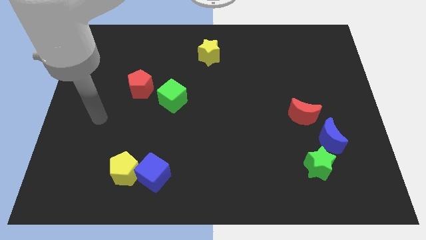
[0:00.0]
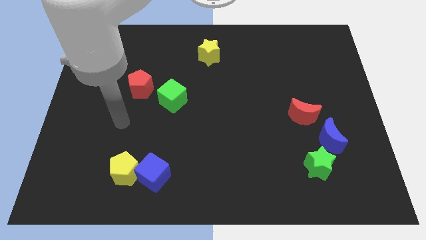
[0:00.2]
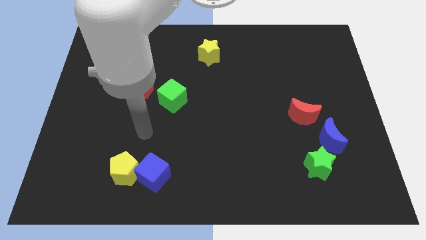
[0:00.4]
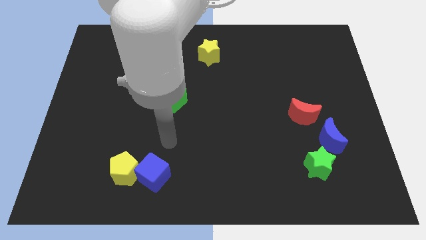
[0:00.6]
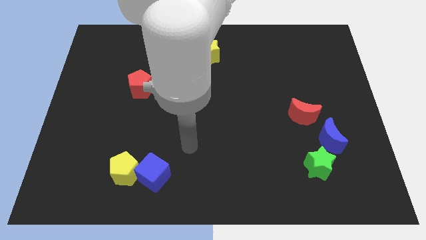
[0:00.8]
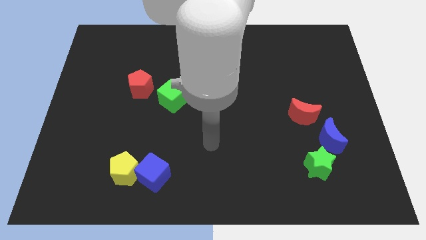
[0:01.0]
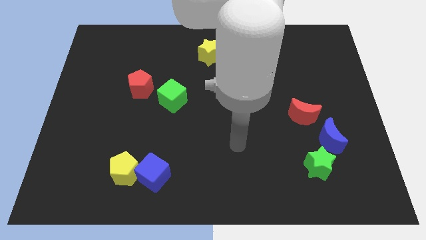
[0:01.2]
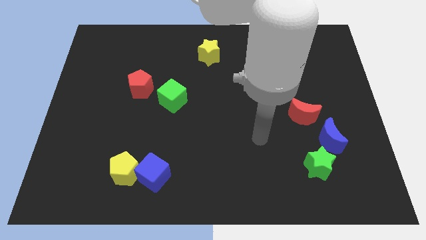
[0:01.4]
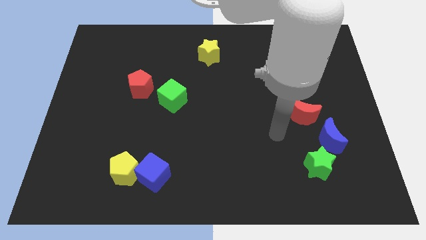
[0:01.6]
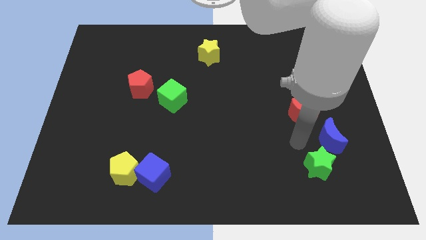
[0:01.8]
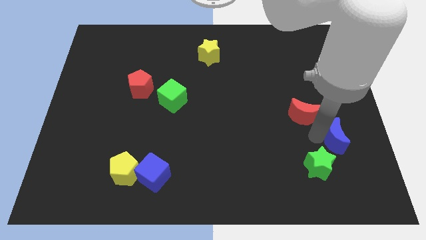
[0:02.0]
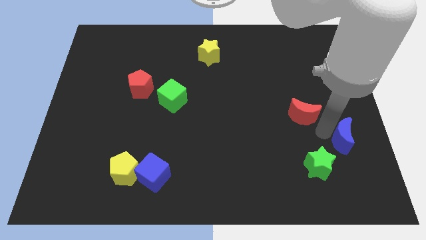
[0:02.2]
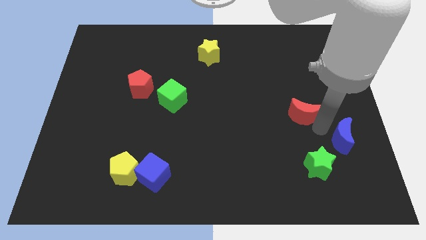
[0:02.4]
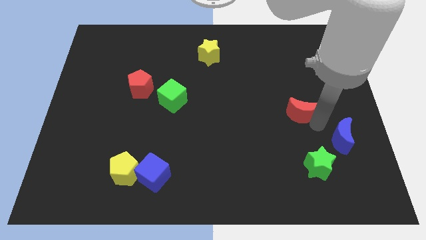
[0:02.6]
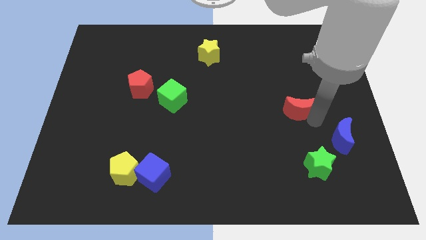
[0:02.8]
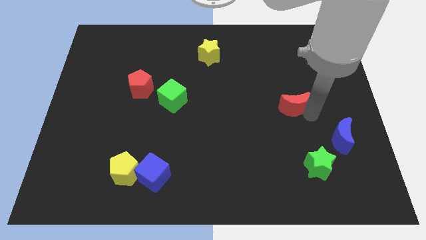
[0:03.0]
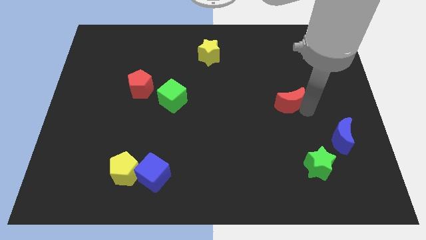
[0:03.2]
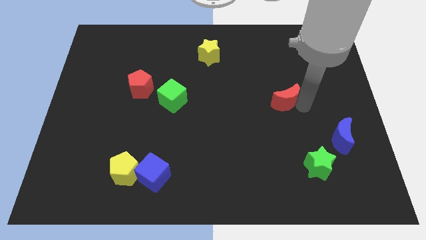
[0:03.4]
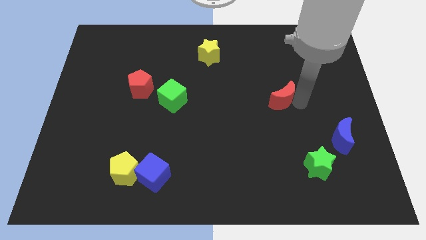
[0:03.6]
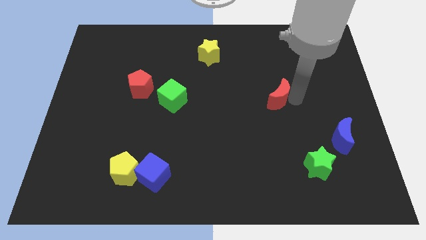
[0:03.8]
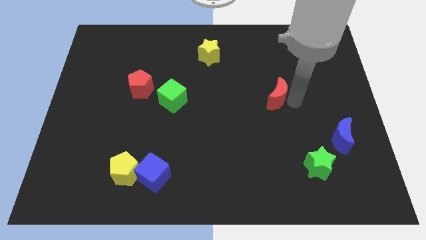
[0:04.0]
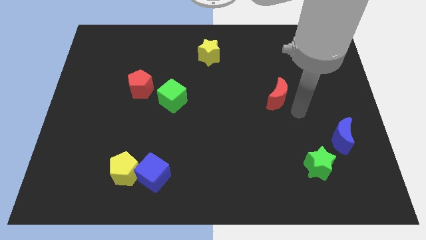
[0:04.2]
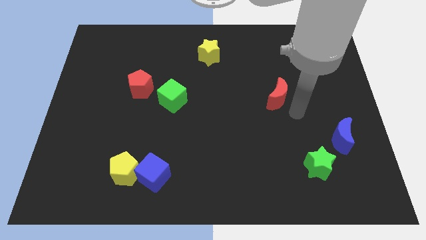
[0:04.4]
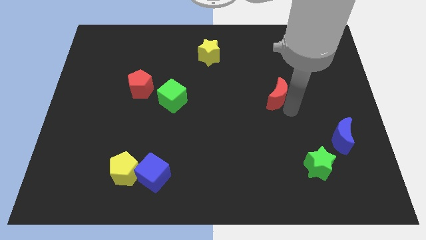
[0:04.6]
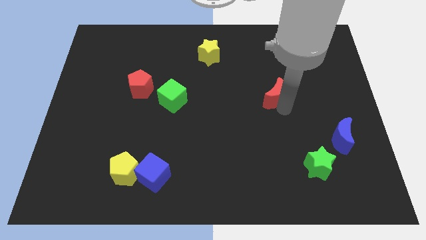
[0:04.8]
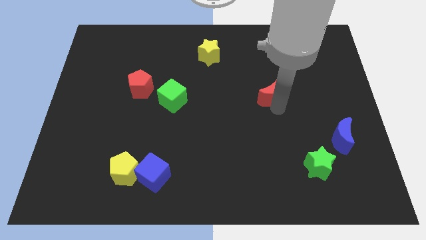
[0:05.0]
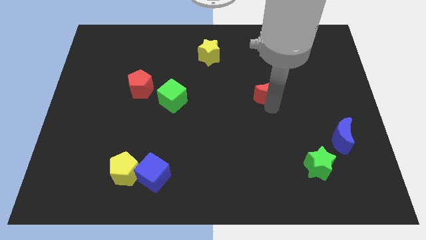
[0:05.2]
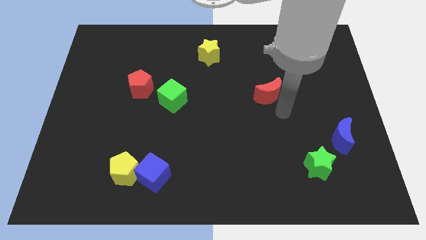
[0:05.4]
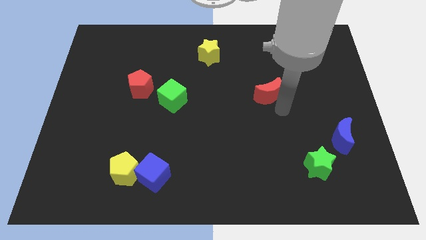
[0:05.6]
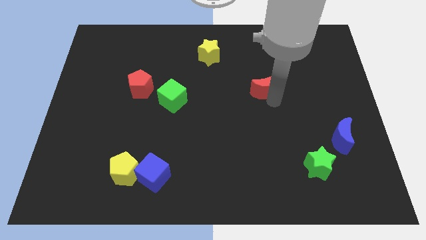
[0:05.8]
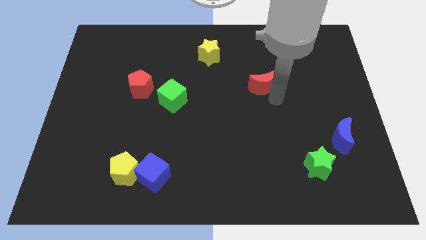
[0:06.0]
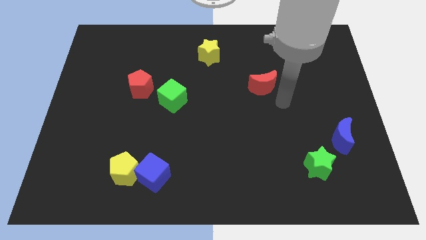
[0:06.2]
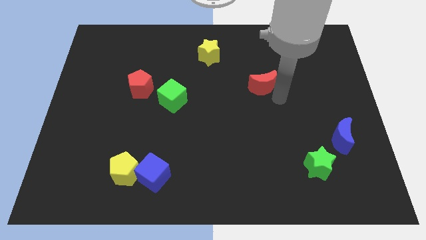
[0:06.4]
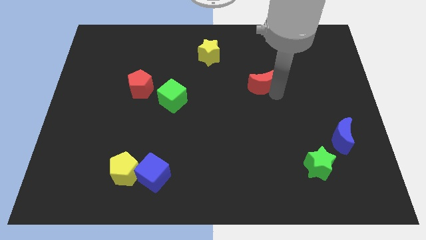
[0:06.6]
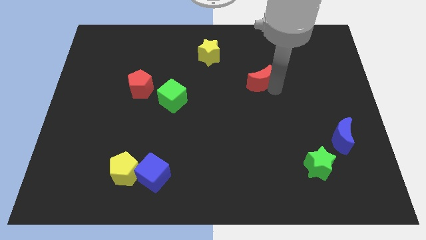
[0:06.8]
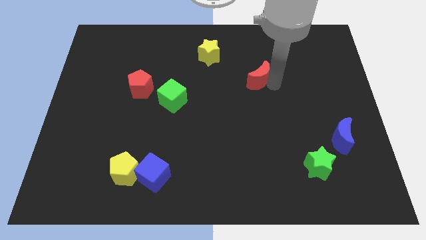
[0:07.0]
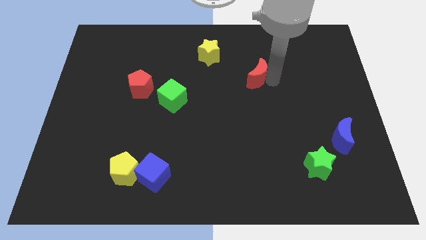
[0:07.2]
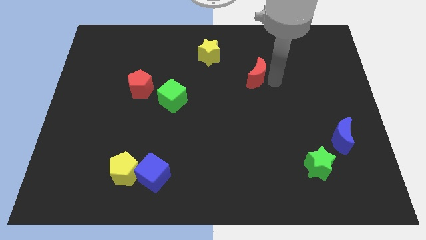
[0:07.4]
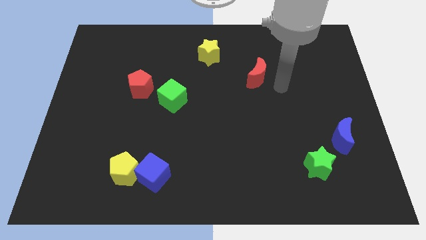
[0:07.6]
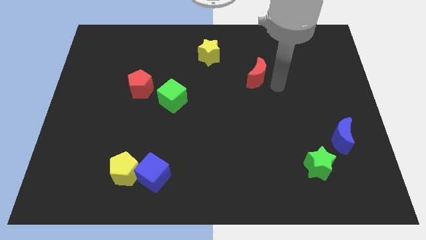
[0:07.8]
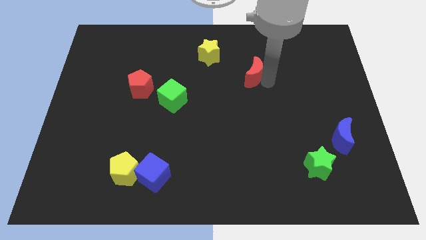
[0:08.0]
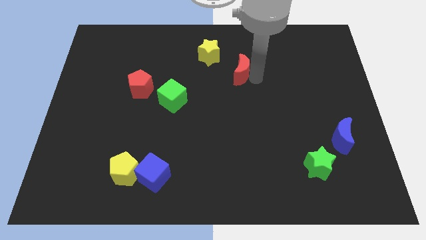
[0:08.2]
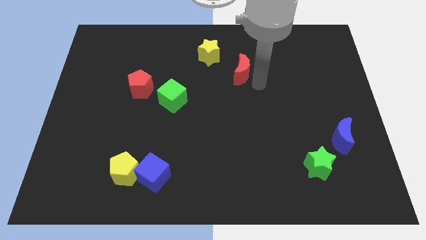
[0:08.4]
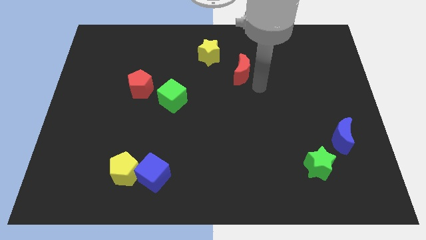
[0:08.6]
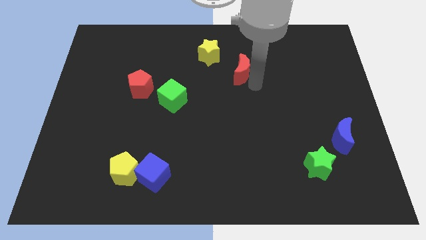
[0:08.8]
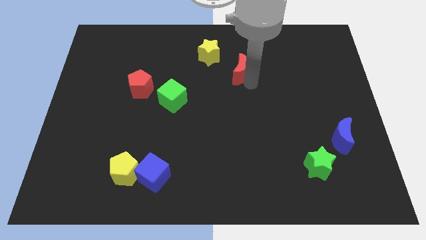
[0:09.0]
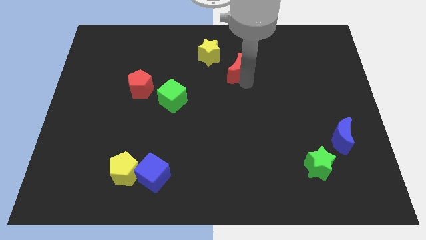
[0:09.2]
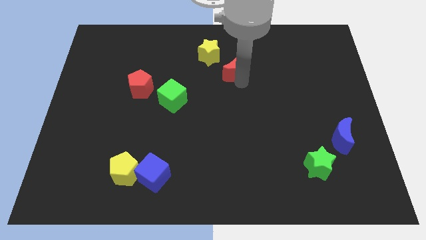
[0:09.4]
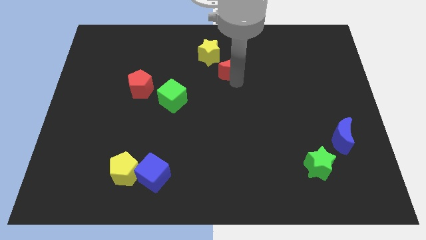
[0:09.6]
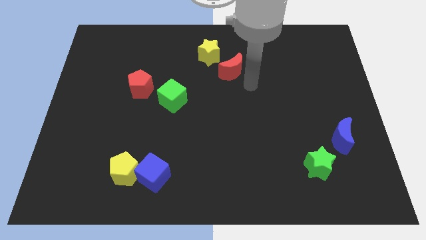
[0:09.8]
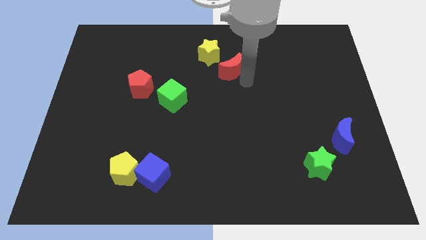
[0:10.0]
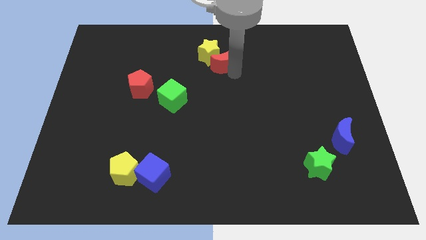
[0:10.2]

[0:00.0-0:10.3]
push the red moon towards the yellow star

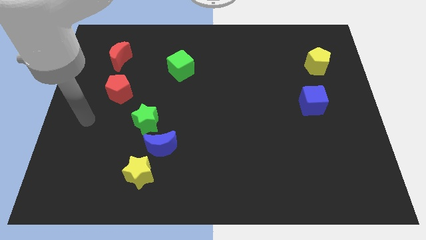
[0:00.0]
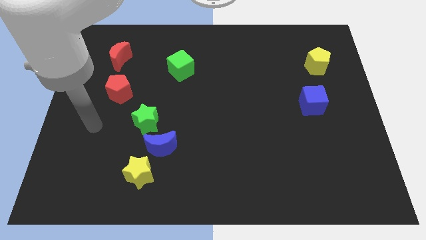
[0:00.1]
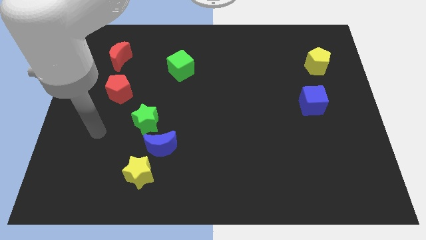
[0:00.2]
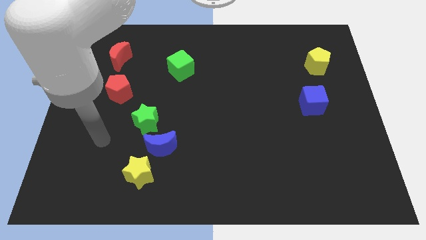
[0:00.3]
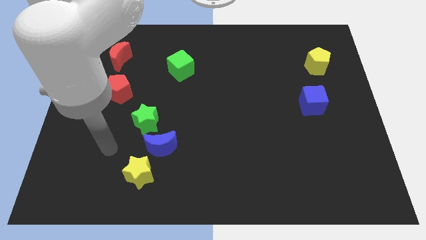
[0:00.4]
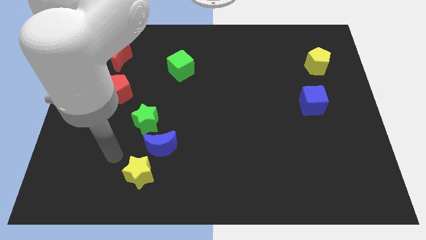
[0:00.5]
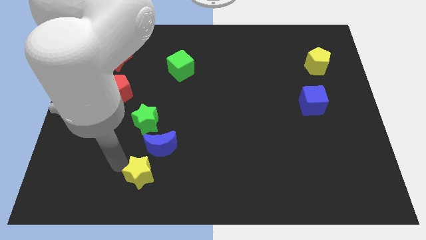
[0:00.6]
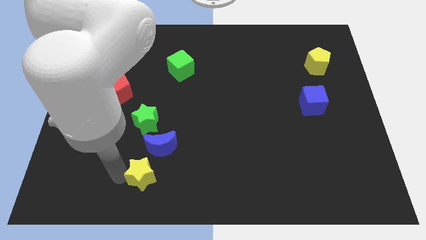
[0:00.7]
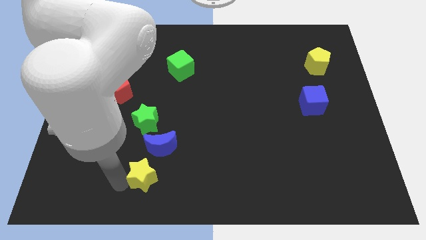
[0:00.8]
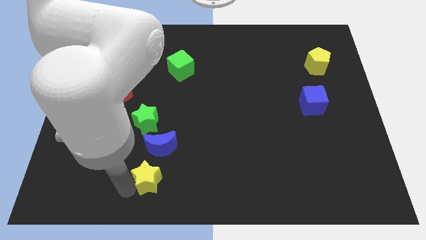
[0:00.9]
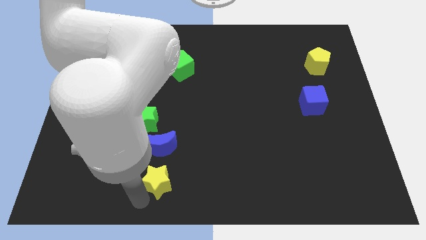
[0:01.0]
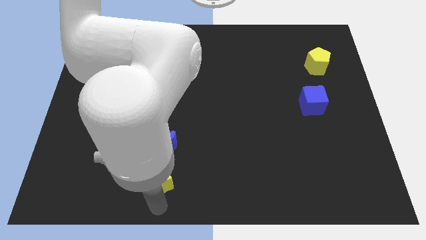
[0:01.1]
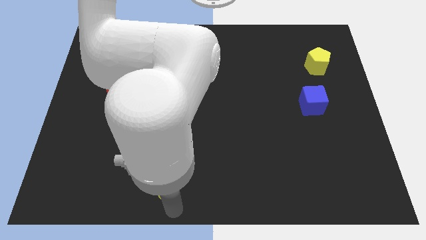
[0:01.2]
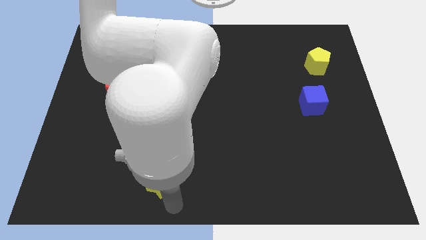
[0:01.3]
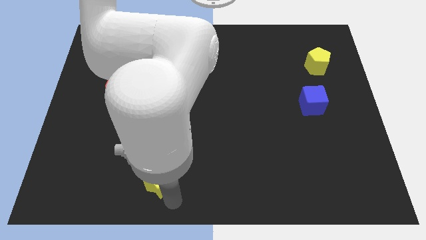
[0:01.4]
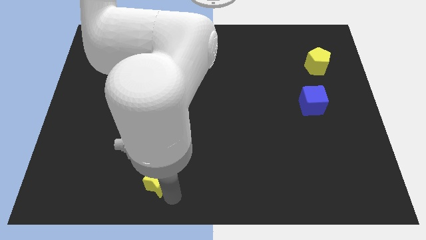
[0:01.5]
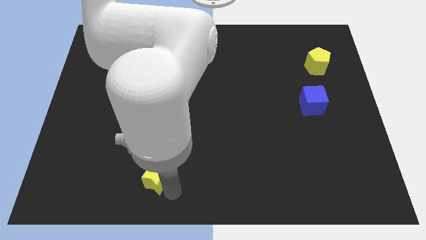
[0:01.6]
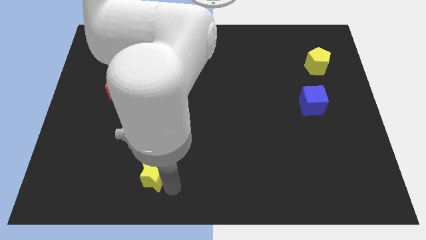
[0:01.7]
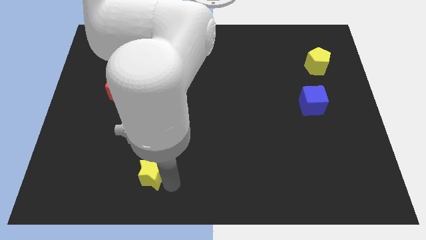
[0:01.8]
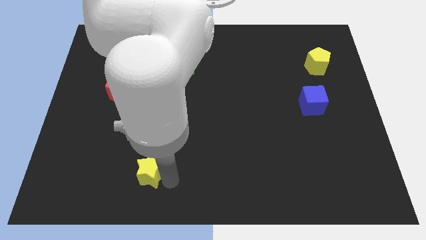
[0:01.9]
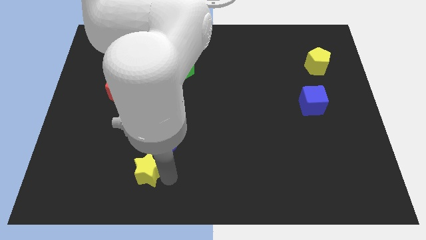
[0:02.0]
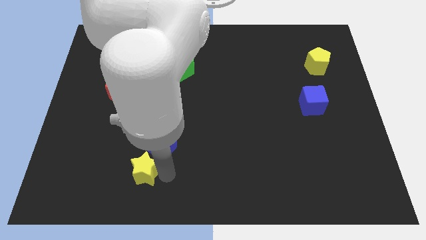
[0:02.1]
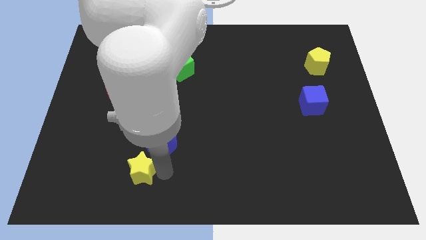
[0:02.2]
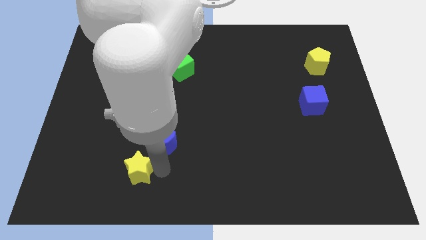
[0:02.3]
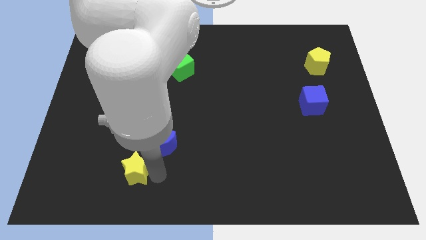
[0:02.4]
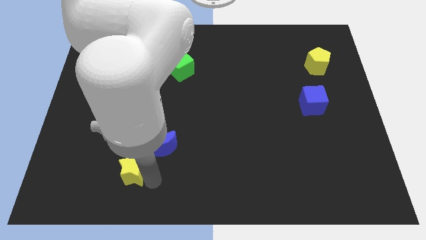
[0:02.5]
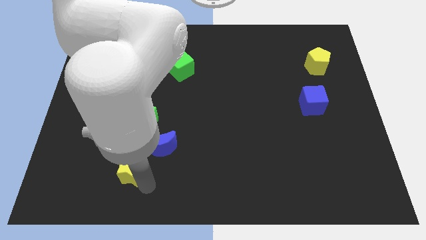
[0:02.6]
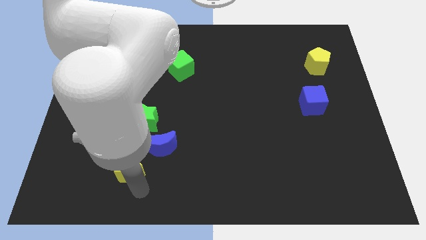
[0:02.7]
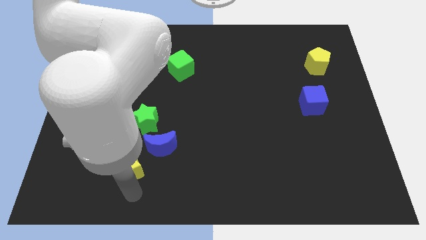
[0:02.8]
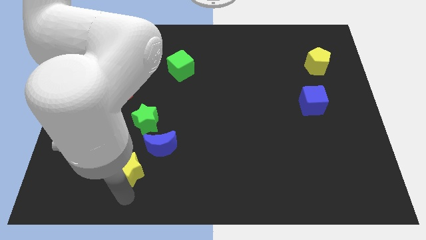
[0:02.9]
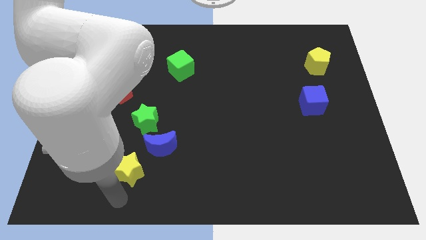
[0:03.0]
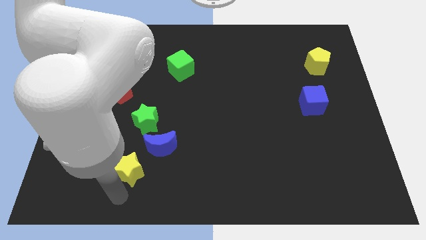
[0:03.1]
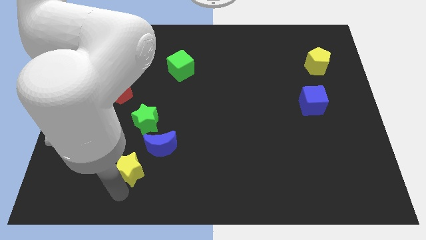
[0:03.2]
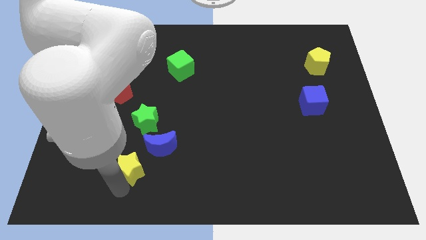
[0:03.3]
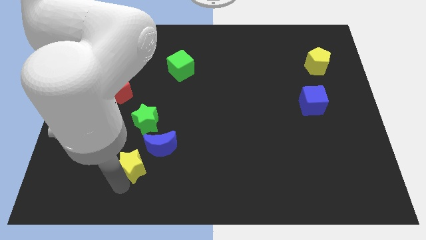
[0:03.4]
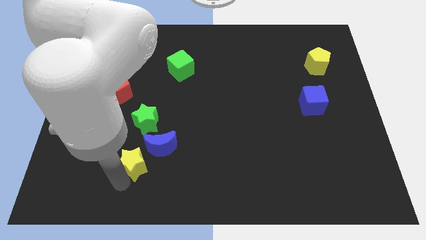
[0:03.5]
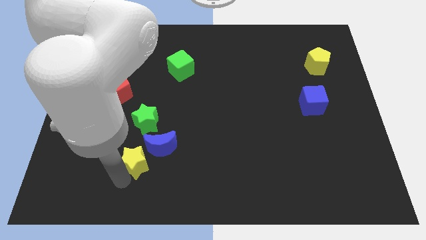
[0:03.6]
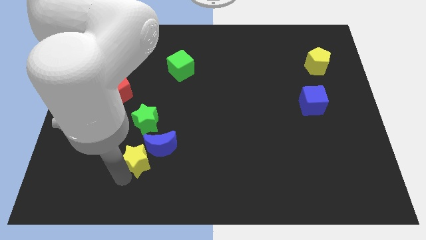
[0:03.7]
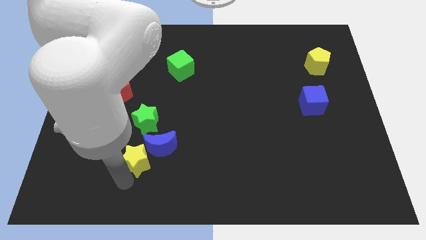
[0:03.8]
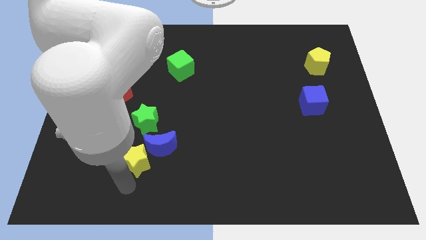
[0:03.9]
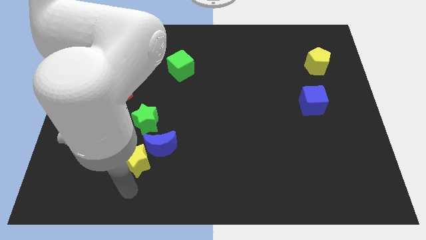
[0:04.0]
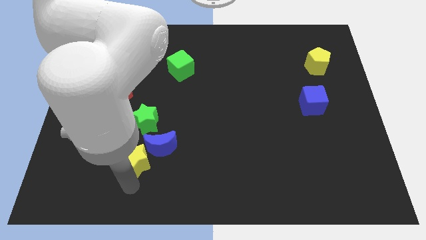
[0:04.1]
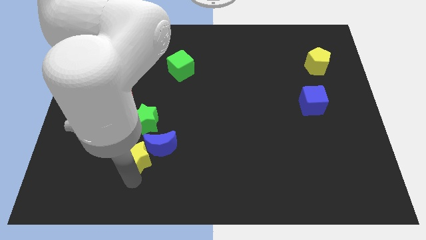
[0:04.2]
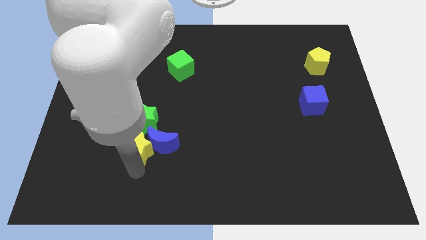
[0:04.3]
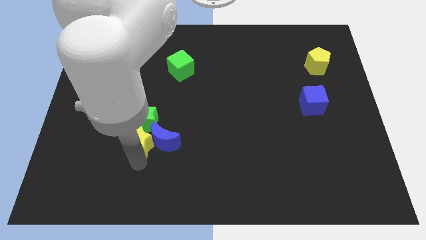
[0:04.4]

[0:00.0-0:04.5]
move the yellow star next to the green star
